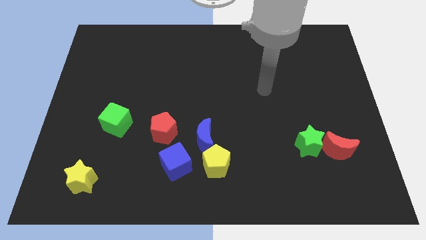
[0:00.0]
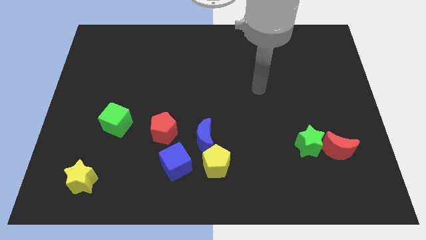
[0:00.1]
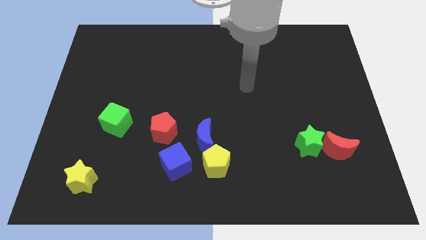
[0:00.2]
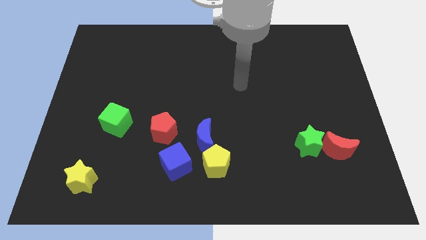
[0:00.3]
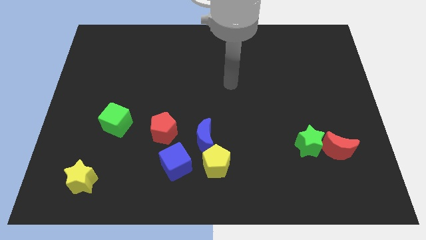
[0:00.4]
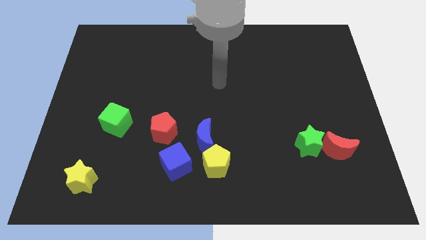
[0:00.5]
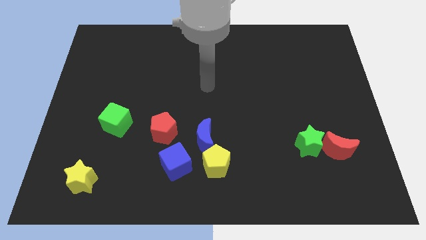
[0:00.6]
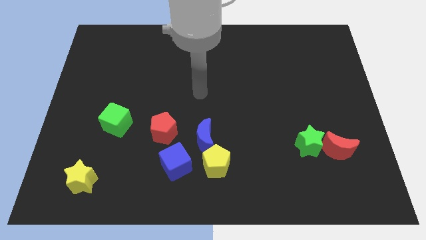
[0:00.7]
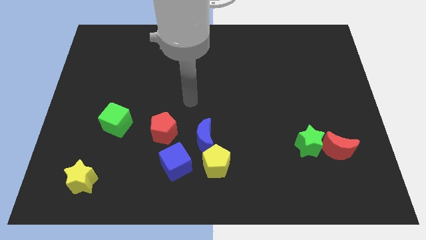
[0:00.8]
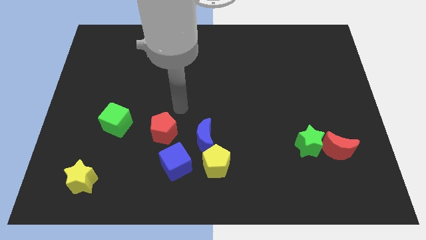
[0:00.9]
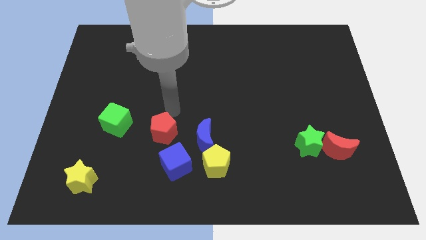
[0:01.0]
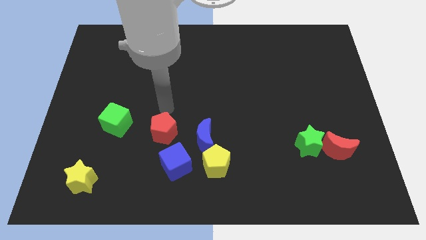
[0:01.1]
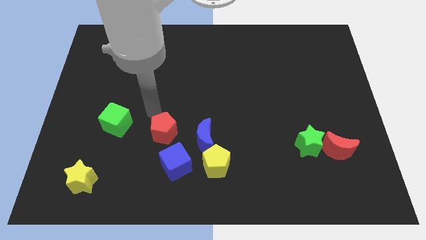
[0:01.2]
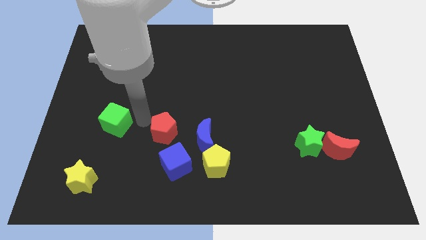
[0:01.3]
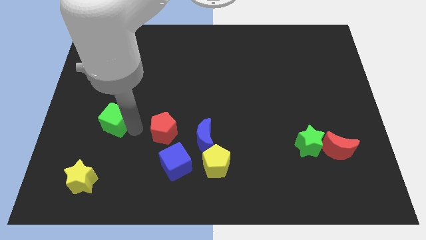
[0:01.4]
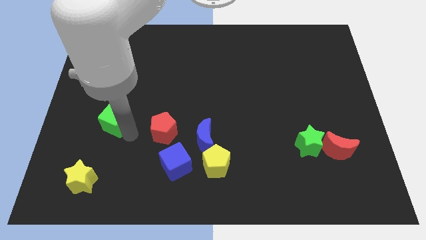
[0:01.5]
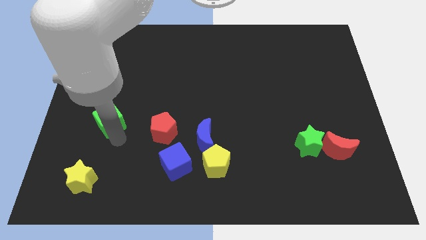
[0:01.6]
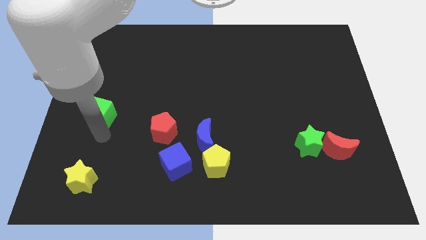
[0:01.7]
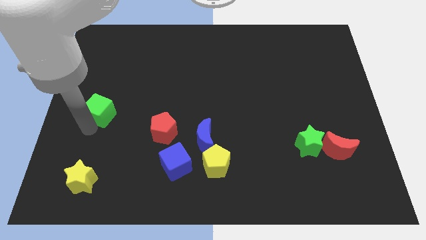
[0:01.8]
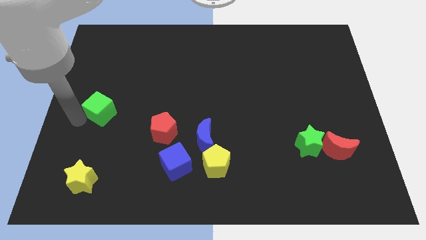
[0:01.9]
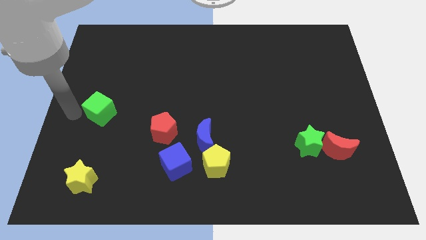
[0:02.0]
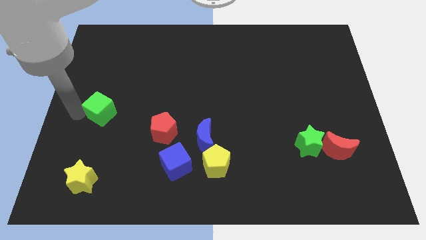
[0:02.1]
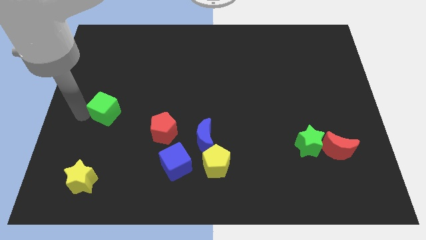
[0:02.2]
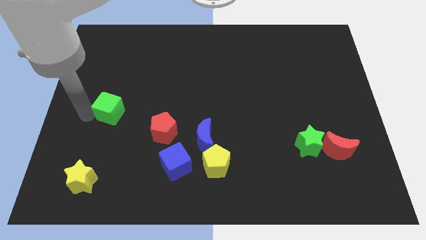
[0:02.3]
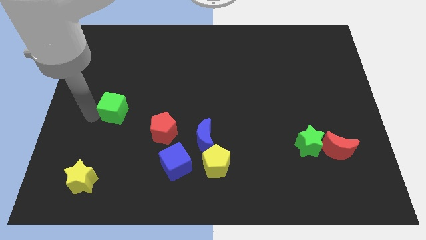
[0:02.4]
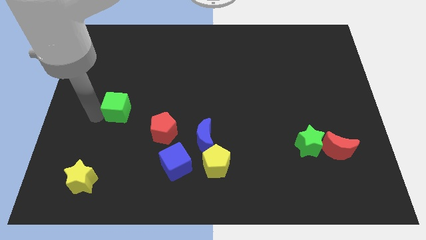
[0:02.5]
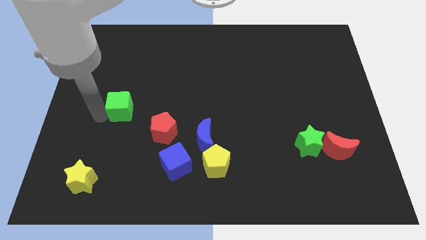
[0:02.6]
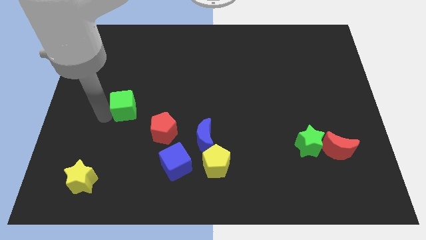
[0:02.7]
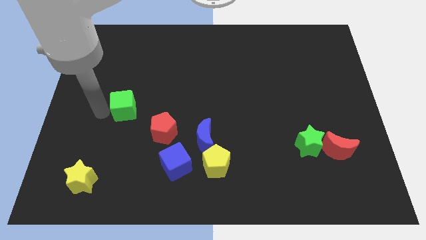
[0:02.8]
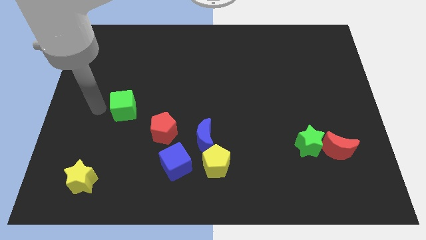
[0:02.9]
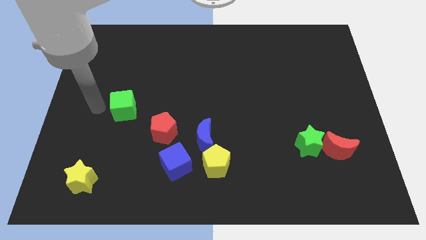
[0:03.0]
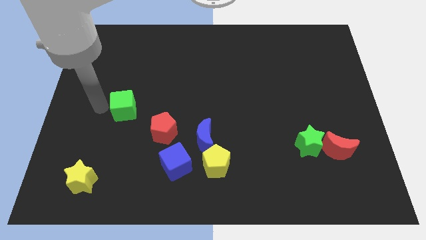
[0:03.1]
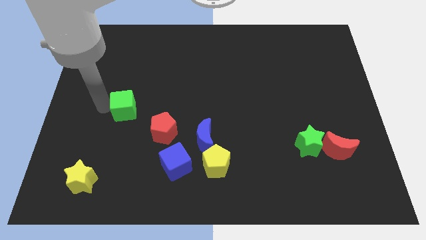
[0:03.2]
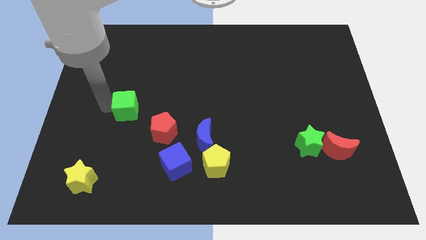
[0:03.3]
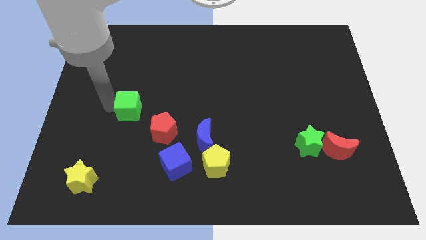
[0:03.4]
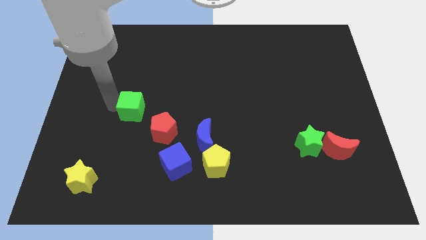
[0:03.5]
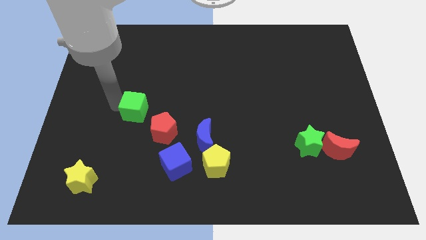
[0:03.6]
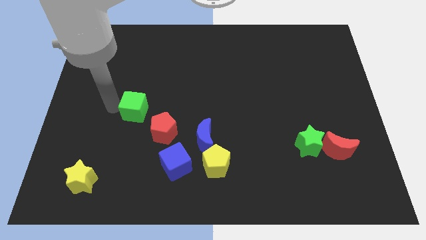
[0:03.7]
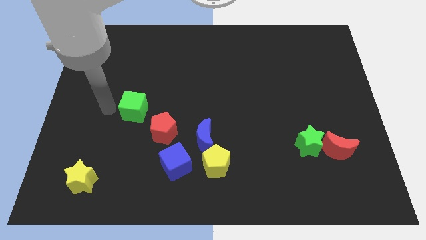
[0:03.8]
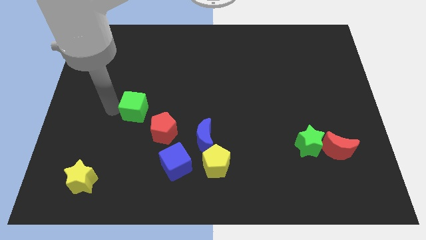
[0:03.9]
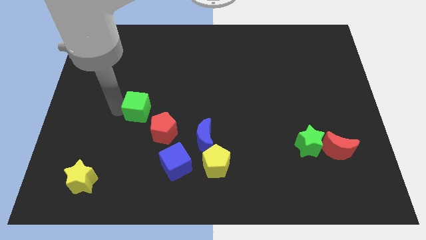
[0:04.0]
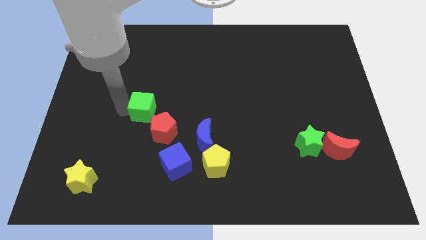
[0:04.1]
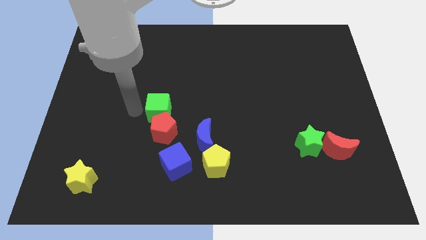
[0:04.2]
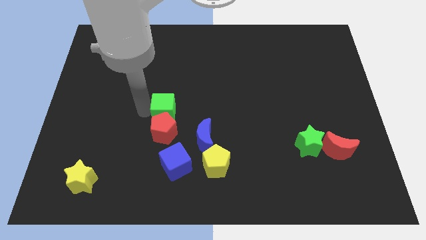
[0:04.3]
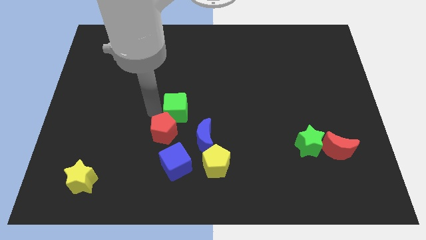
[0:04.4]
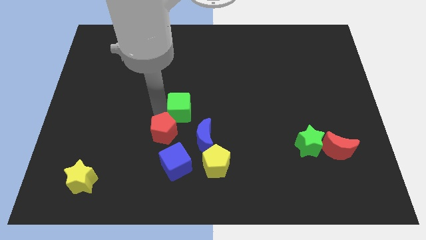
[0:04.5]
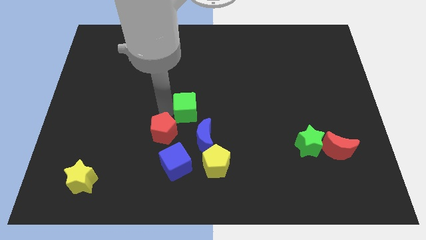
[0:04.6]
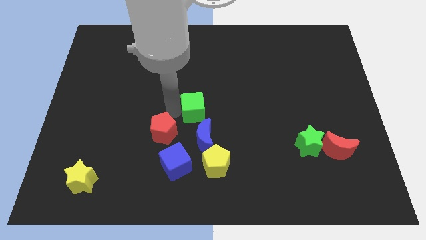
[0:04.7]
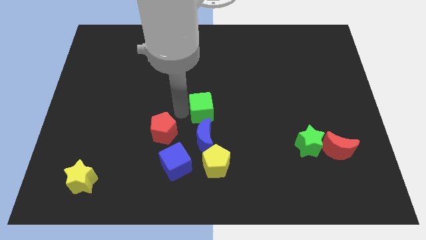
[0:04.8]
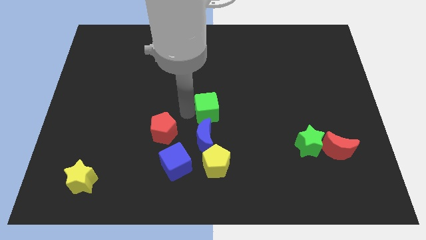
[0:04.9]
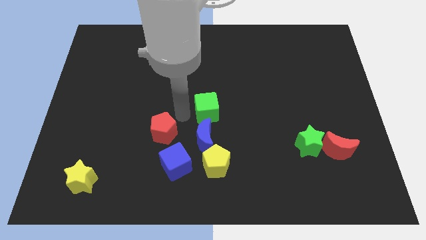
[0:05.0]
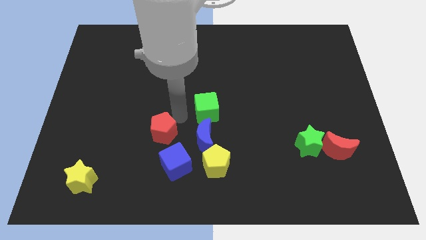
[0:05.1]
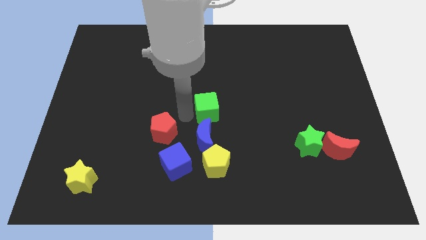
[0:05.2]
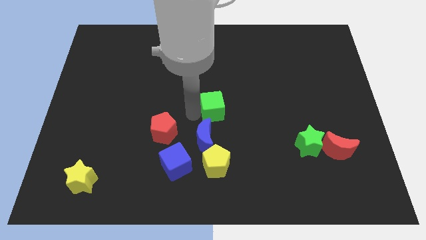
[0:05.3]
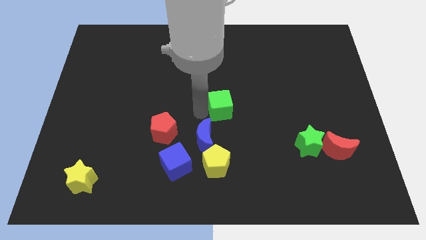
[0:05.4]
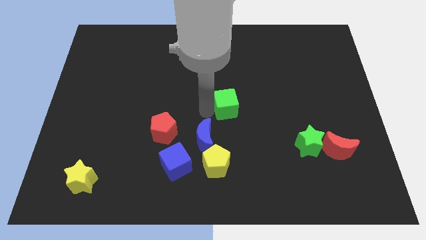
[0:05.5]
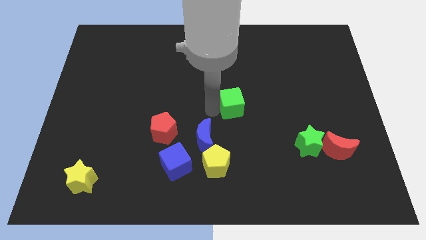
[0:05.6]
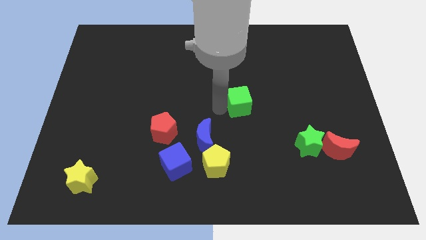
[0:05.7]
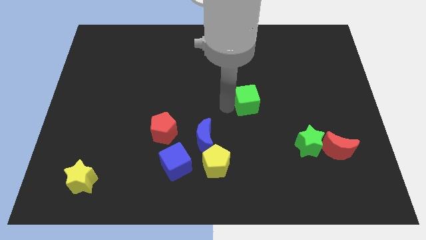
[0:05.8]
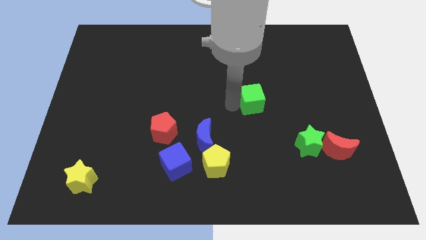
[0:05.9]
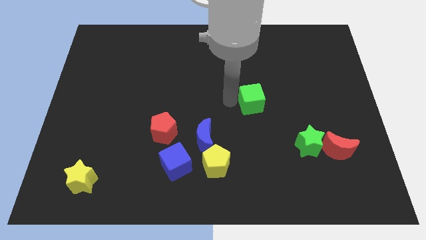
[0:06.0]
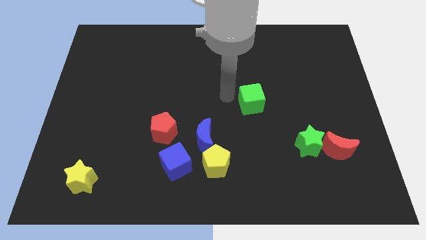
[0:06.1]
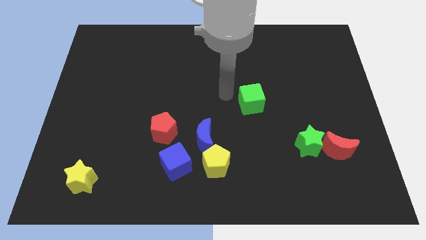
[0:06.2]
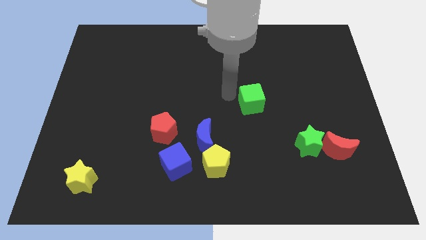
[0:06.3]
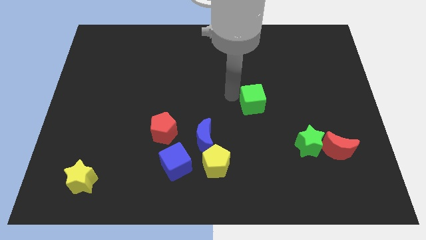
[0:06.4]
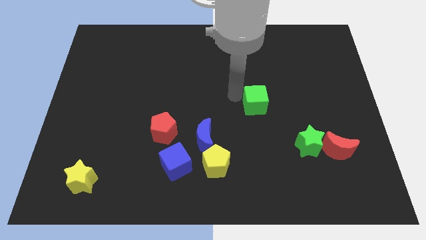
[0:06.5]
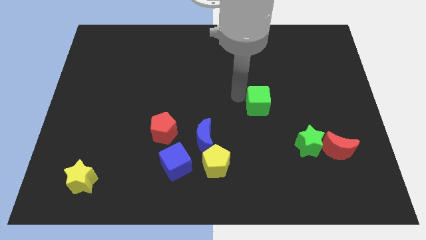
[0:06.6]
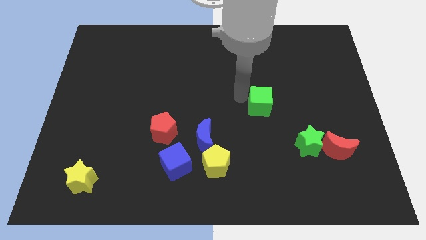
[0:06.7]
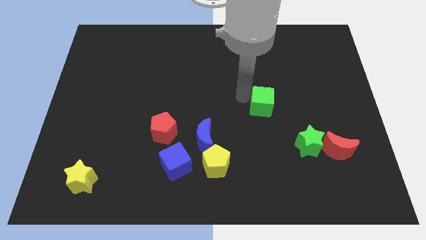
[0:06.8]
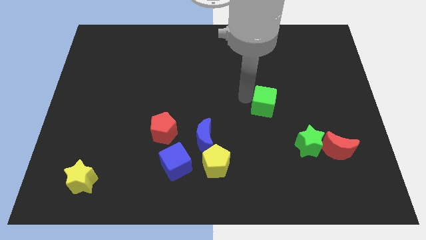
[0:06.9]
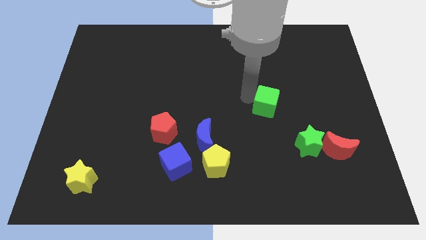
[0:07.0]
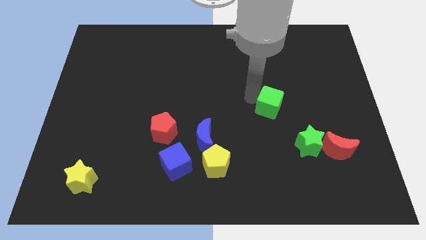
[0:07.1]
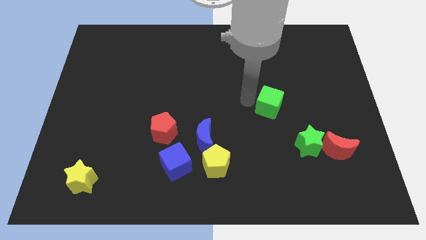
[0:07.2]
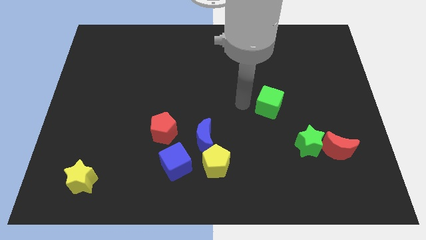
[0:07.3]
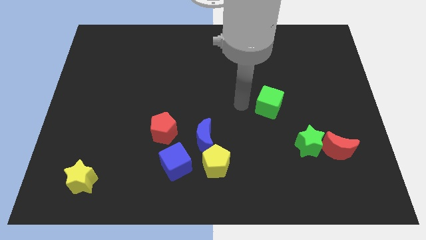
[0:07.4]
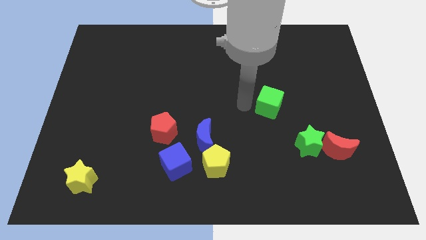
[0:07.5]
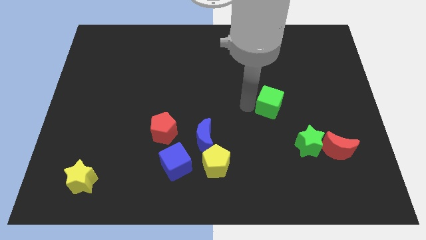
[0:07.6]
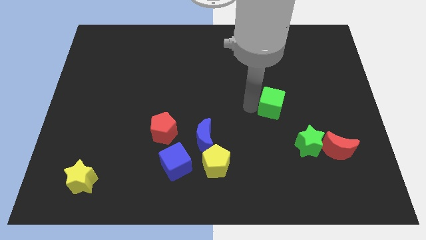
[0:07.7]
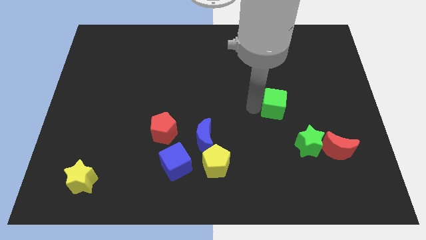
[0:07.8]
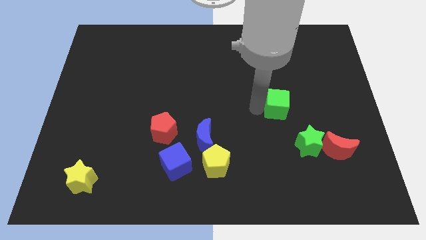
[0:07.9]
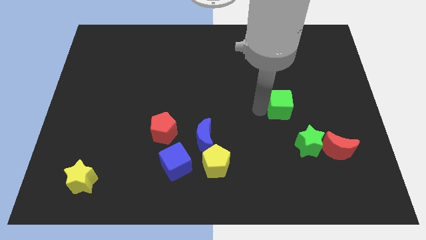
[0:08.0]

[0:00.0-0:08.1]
slide the green cube to the top of the green star
